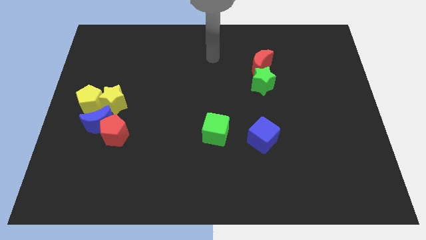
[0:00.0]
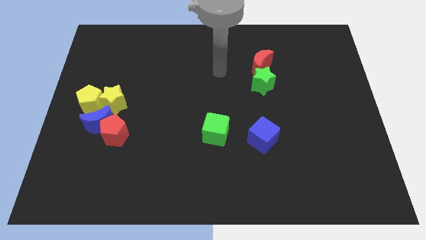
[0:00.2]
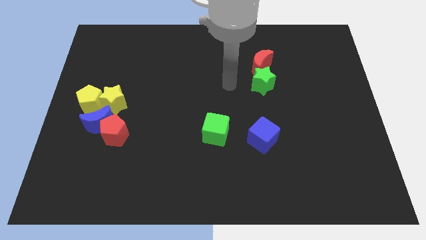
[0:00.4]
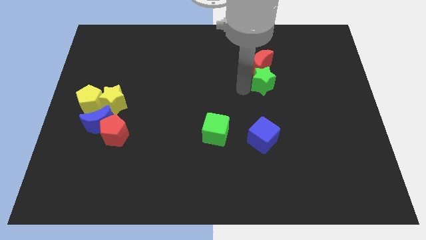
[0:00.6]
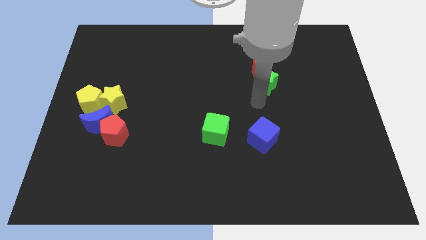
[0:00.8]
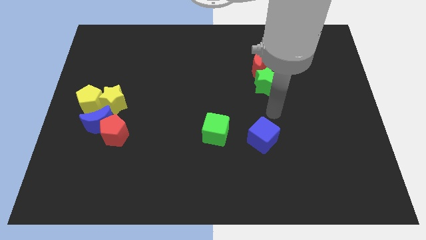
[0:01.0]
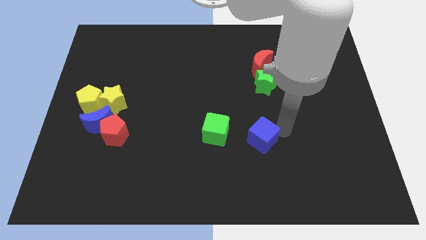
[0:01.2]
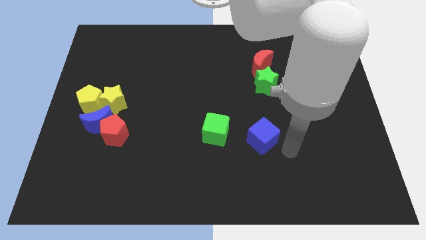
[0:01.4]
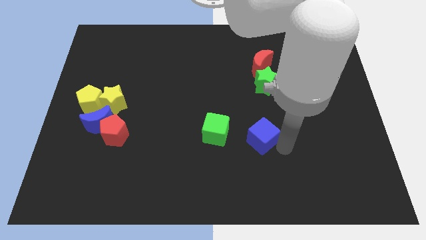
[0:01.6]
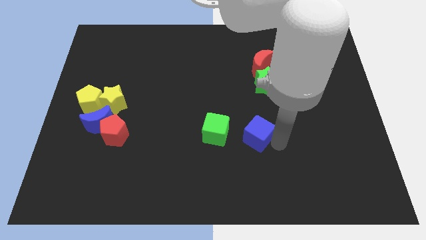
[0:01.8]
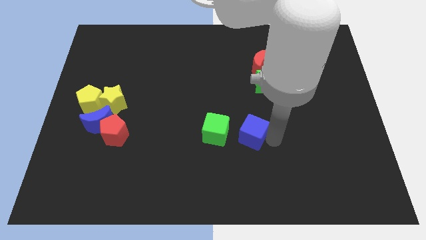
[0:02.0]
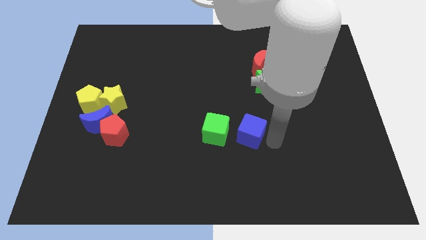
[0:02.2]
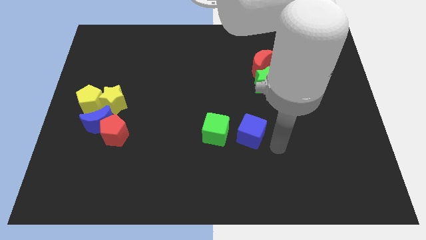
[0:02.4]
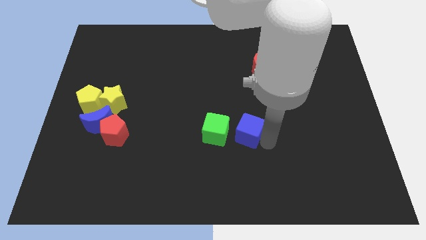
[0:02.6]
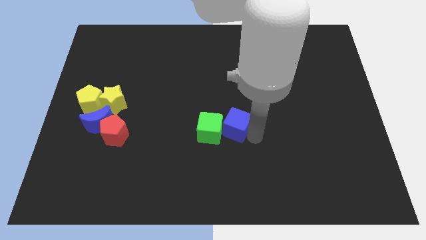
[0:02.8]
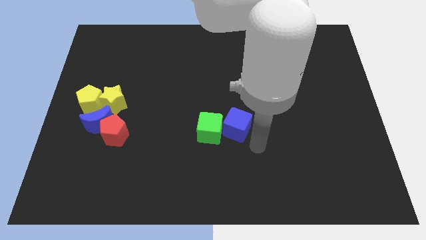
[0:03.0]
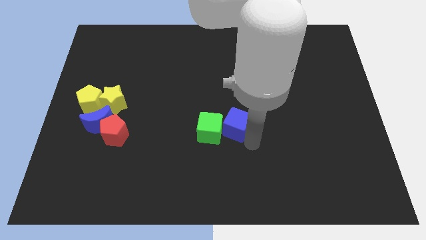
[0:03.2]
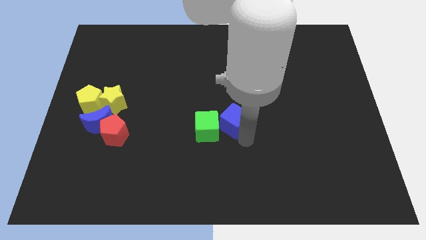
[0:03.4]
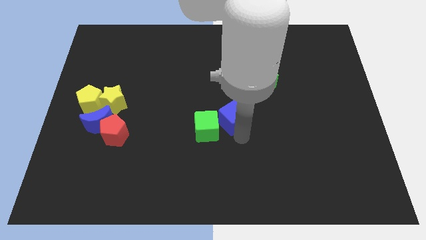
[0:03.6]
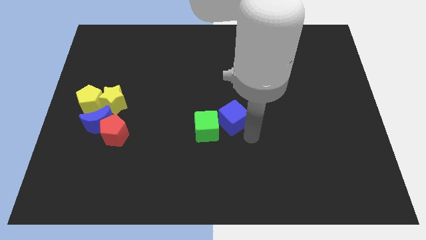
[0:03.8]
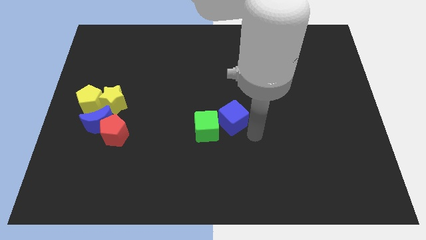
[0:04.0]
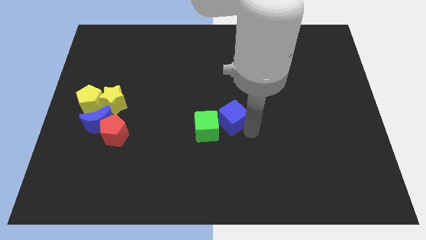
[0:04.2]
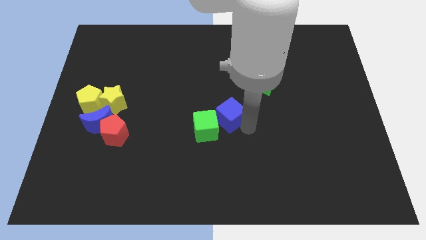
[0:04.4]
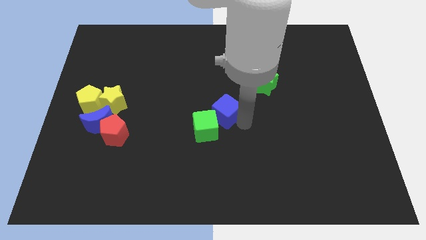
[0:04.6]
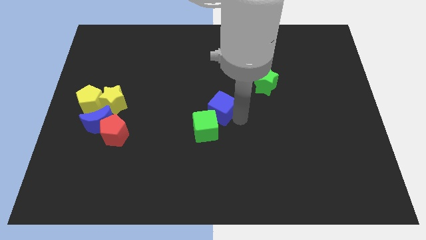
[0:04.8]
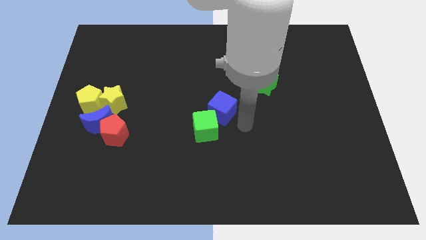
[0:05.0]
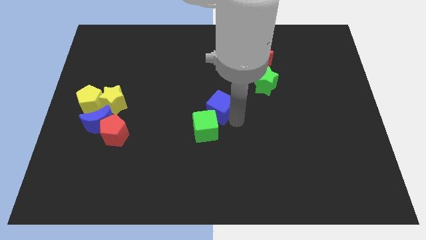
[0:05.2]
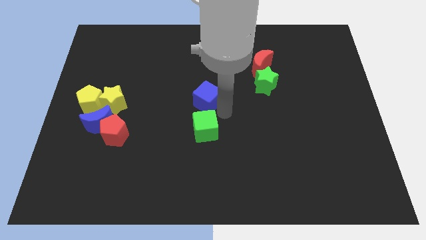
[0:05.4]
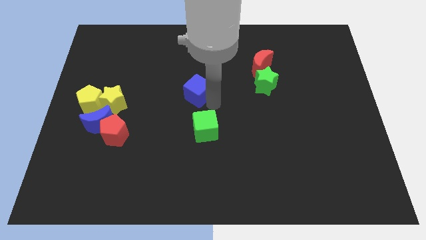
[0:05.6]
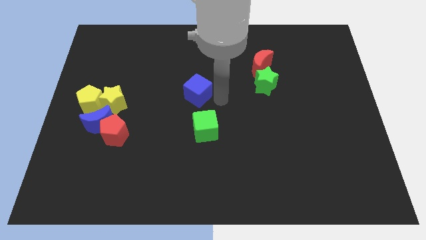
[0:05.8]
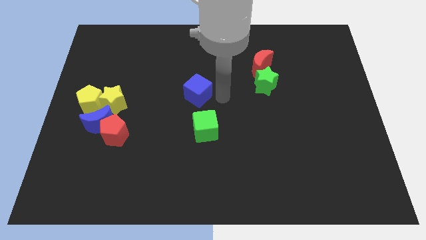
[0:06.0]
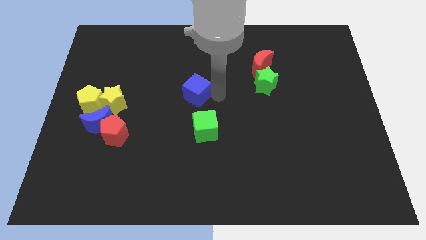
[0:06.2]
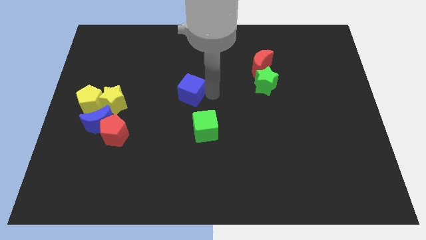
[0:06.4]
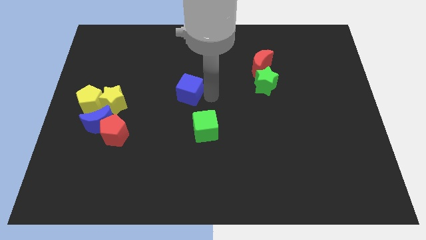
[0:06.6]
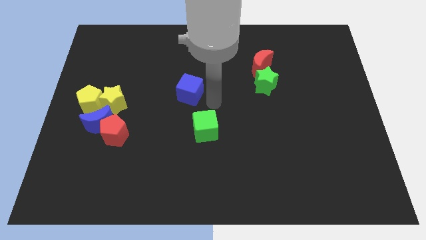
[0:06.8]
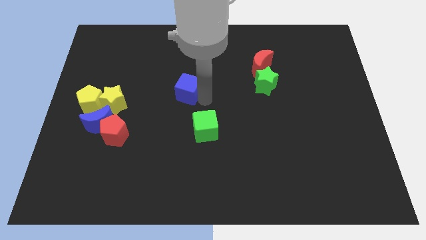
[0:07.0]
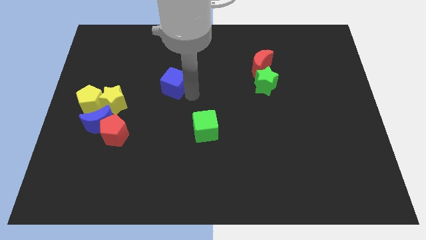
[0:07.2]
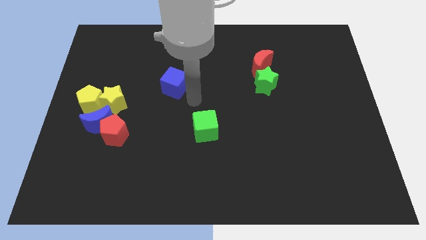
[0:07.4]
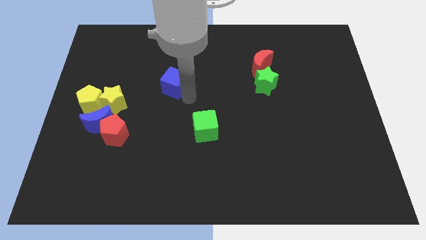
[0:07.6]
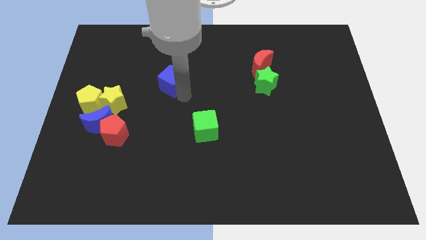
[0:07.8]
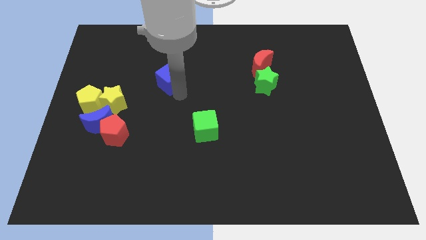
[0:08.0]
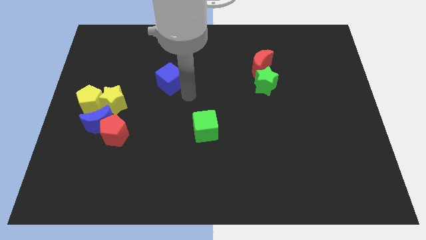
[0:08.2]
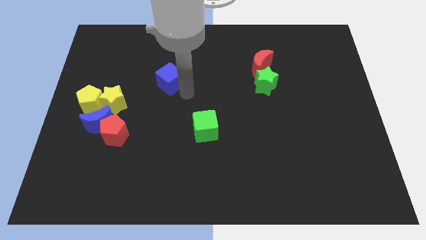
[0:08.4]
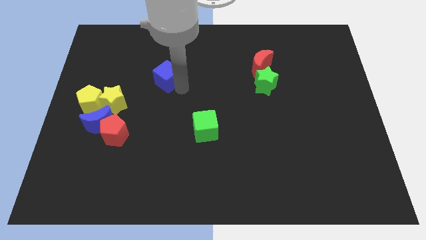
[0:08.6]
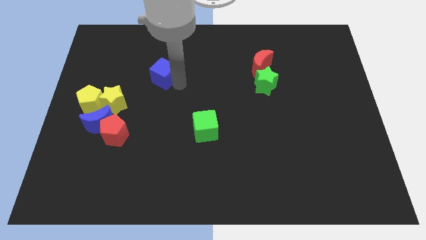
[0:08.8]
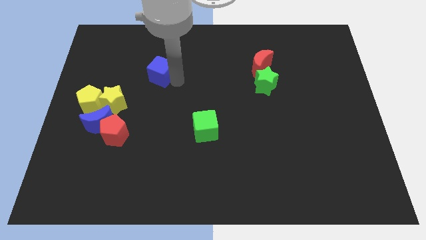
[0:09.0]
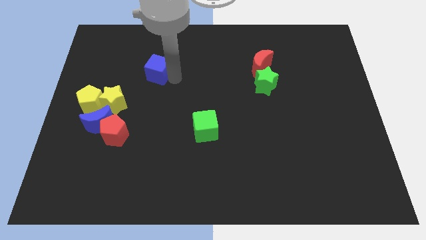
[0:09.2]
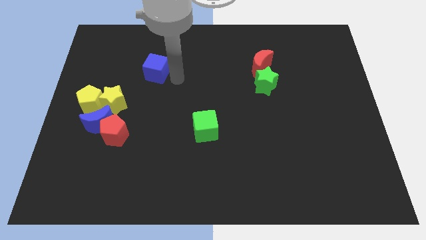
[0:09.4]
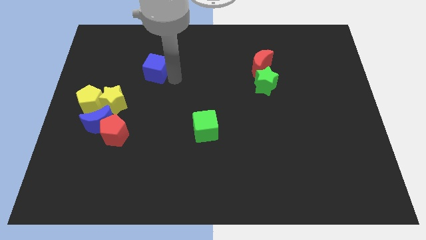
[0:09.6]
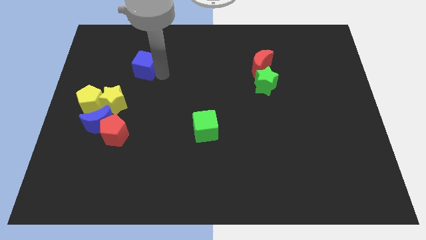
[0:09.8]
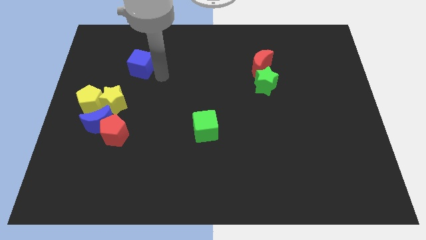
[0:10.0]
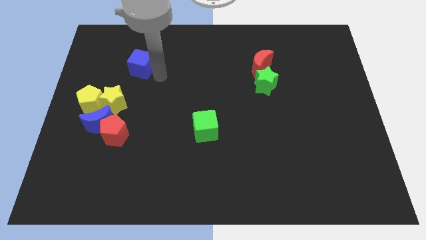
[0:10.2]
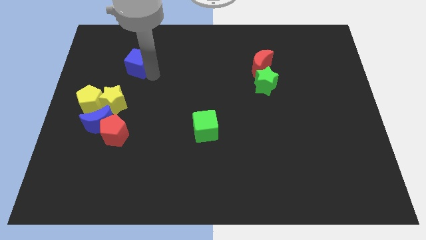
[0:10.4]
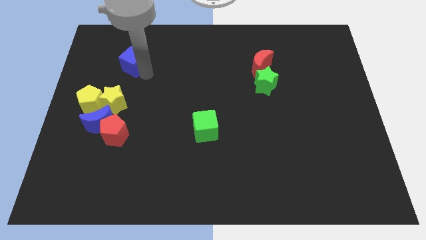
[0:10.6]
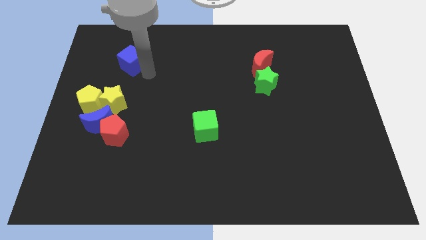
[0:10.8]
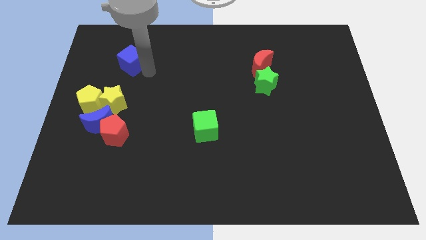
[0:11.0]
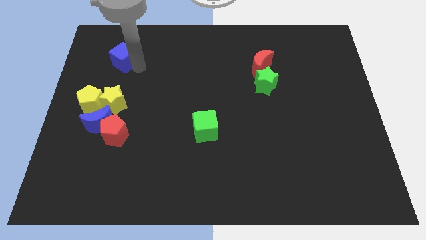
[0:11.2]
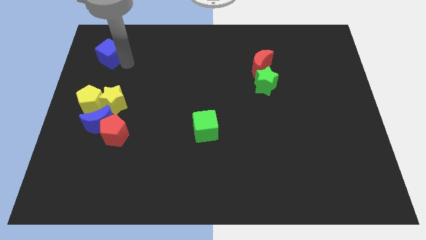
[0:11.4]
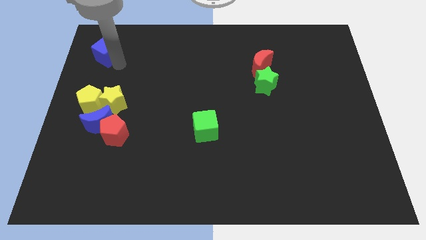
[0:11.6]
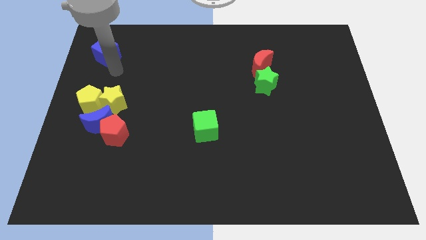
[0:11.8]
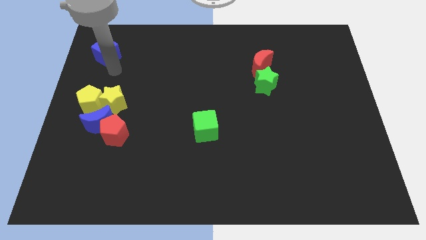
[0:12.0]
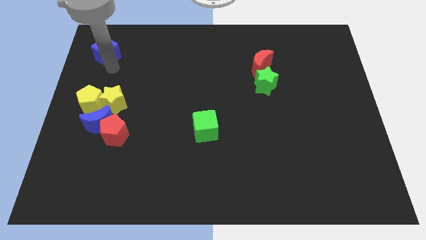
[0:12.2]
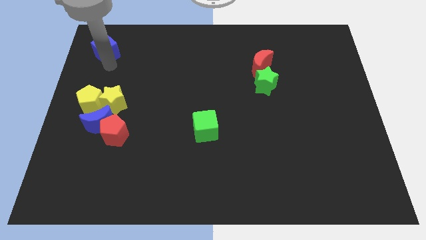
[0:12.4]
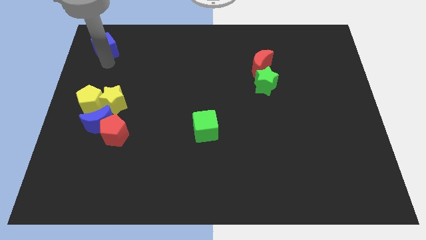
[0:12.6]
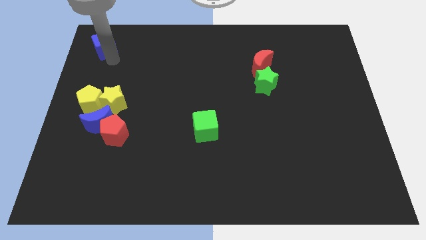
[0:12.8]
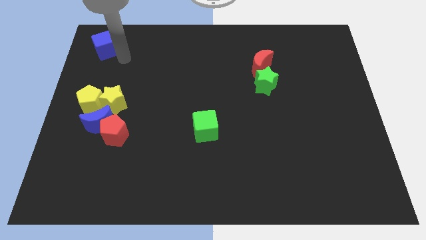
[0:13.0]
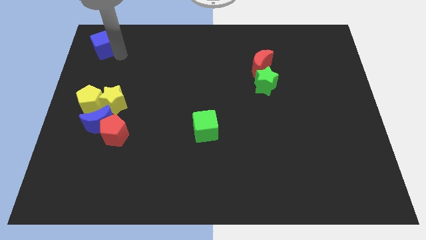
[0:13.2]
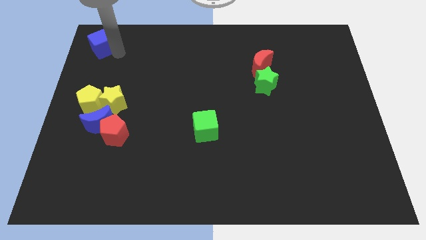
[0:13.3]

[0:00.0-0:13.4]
move the blue cube to the top left corner

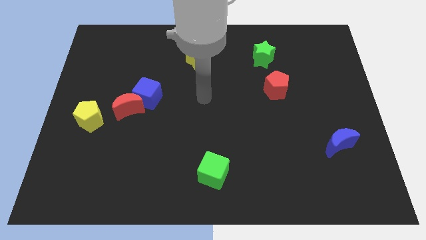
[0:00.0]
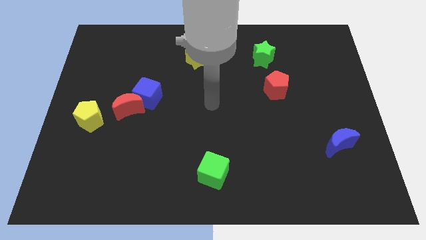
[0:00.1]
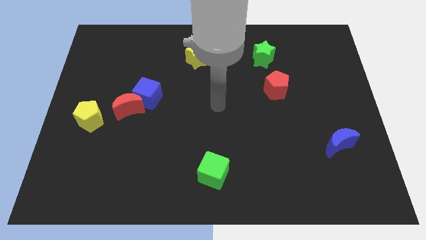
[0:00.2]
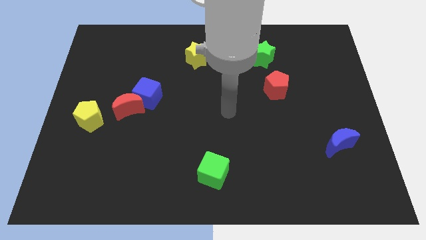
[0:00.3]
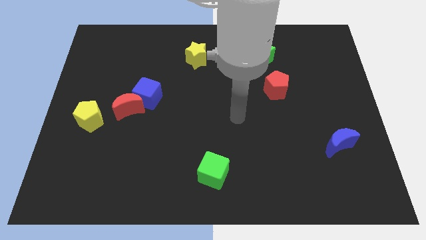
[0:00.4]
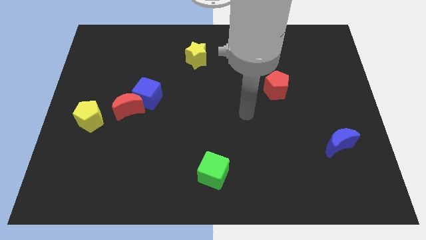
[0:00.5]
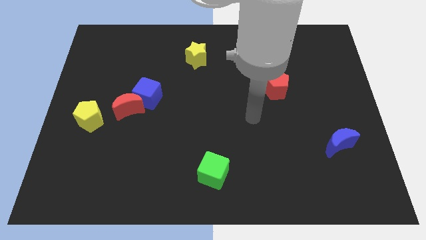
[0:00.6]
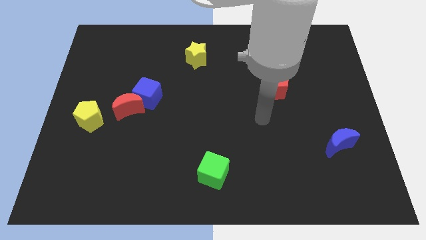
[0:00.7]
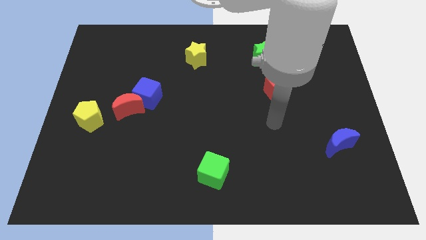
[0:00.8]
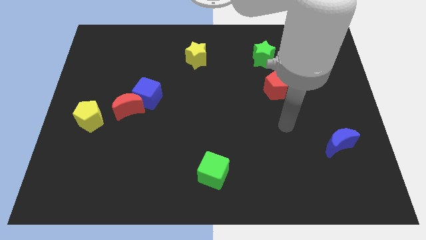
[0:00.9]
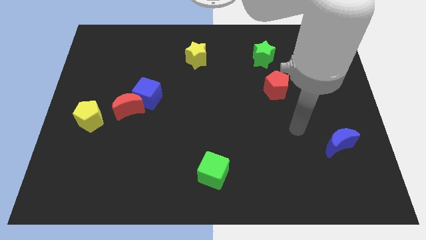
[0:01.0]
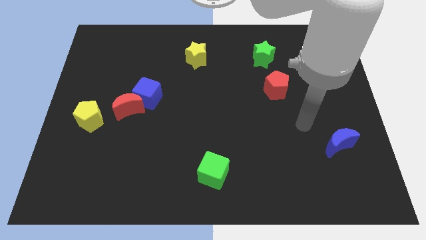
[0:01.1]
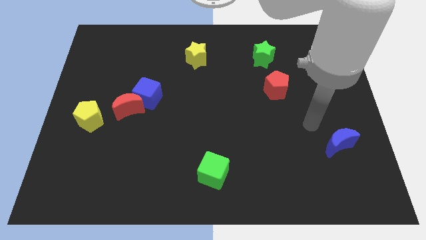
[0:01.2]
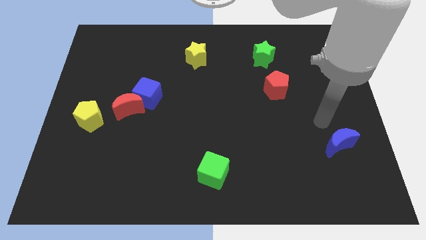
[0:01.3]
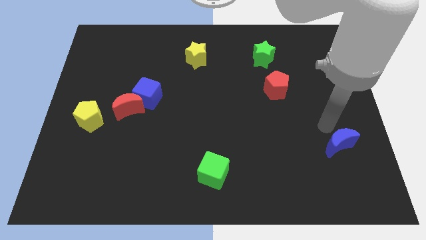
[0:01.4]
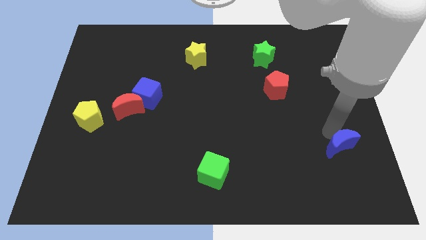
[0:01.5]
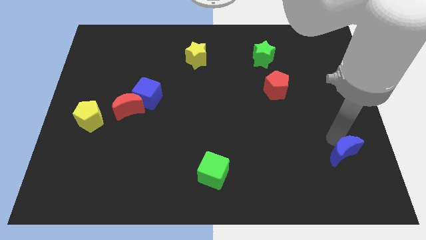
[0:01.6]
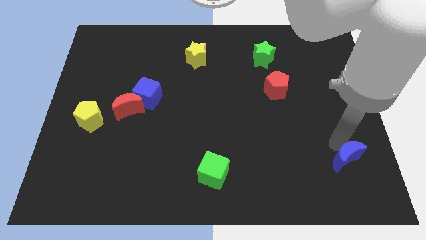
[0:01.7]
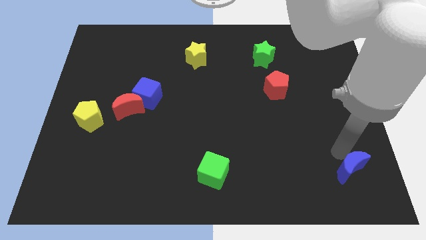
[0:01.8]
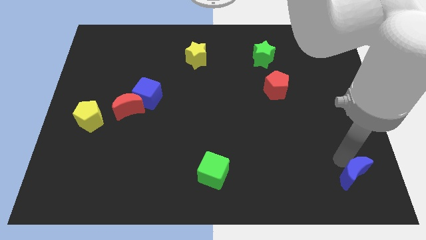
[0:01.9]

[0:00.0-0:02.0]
move the blue moon to the bottom right of the board
